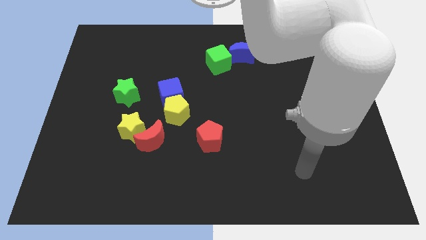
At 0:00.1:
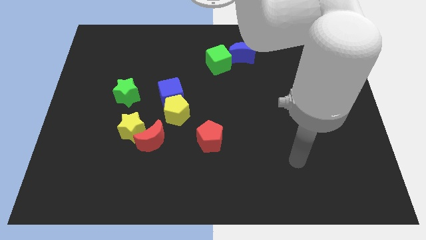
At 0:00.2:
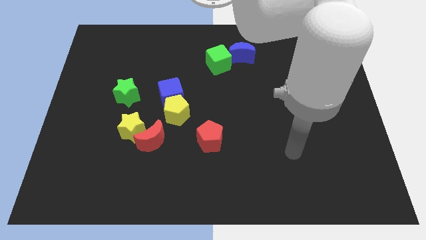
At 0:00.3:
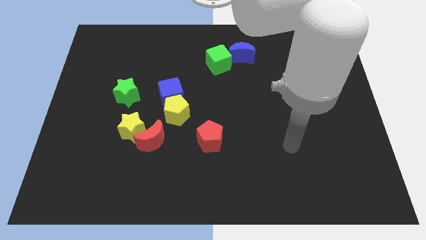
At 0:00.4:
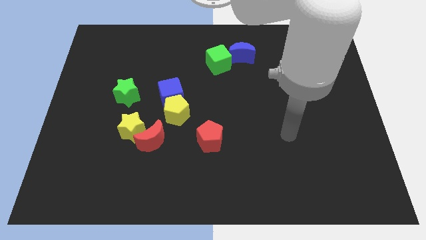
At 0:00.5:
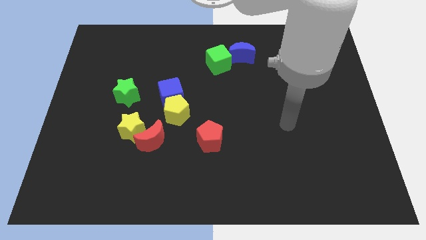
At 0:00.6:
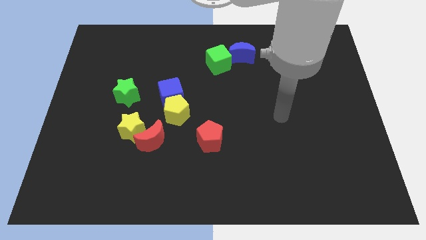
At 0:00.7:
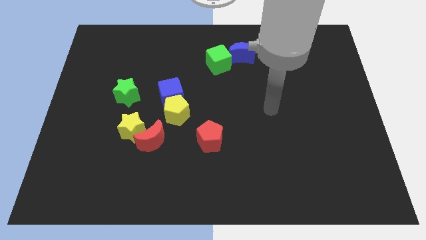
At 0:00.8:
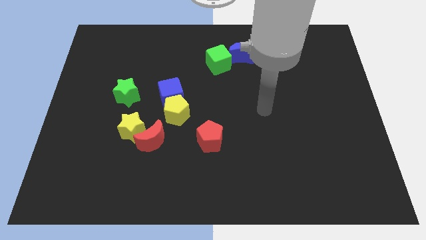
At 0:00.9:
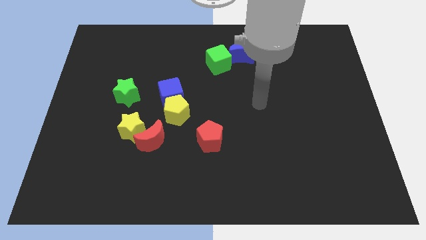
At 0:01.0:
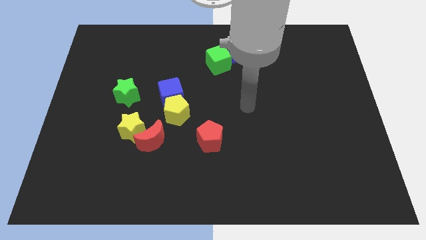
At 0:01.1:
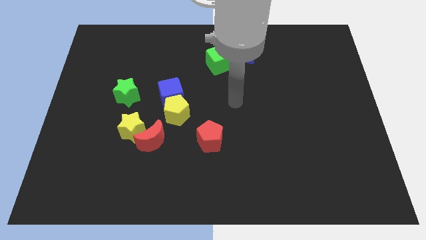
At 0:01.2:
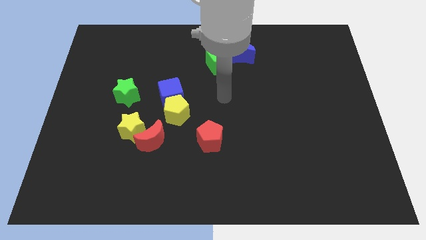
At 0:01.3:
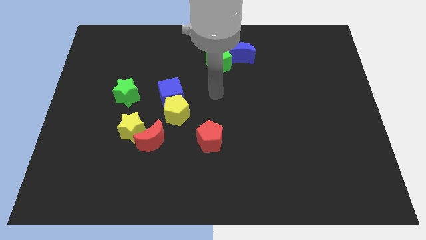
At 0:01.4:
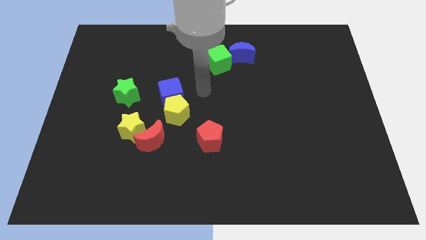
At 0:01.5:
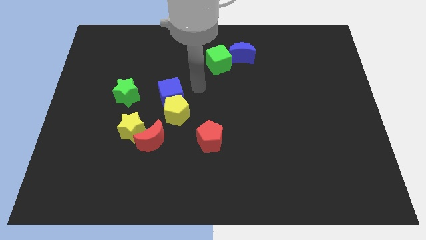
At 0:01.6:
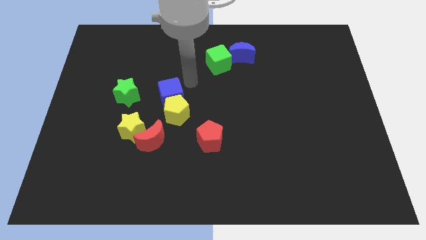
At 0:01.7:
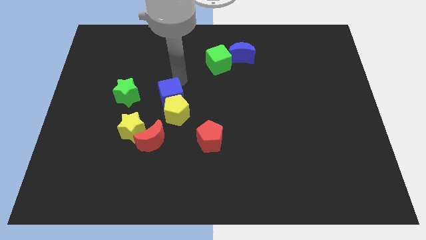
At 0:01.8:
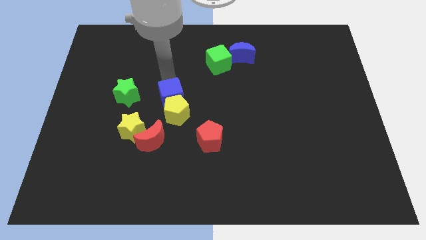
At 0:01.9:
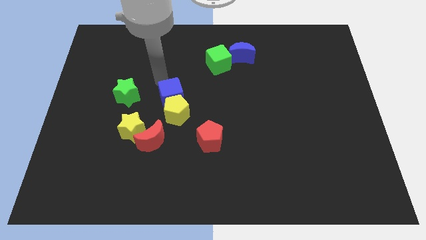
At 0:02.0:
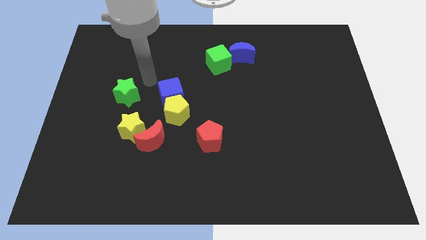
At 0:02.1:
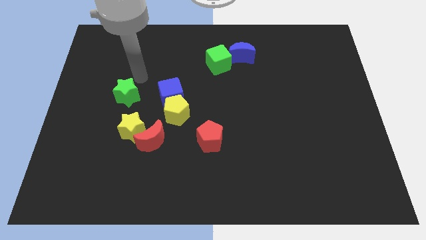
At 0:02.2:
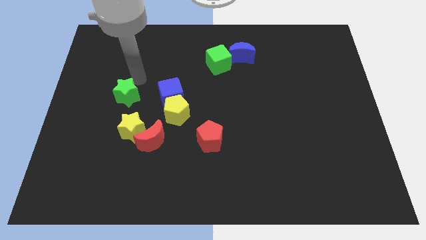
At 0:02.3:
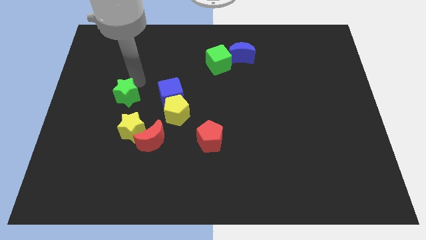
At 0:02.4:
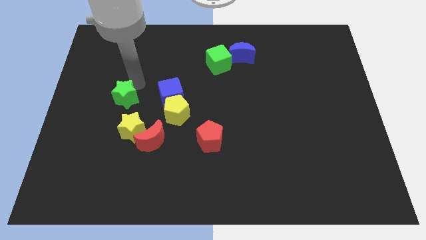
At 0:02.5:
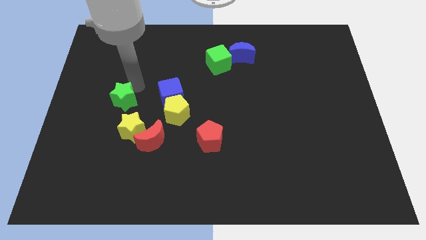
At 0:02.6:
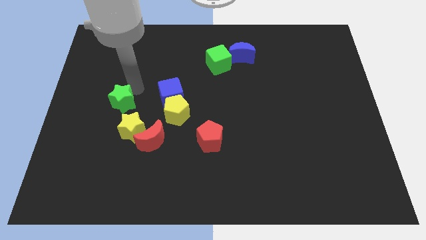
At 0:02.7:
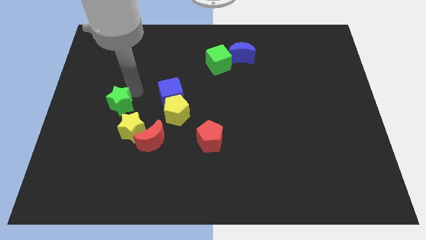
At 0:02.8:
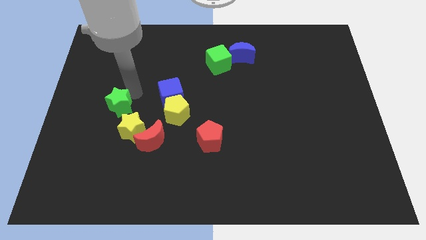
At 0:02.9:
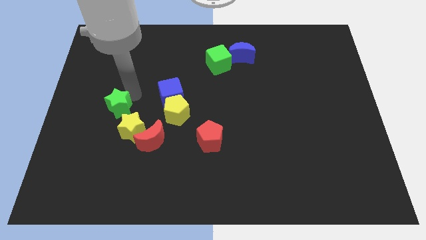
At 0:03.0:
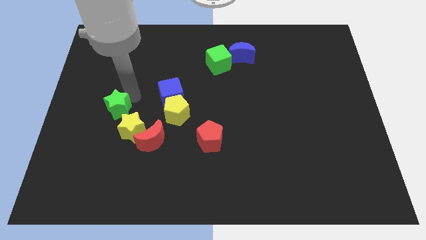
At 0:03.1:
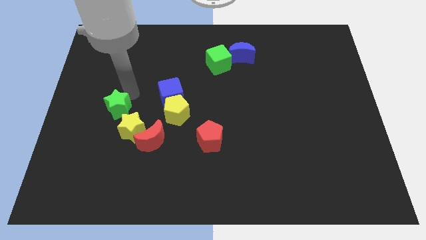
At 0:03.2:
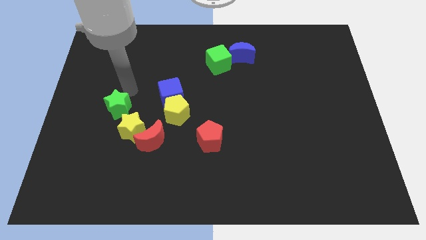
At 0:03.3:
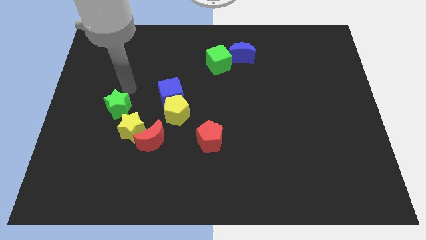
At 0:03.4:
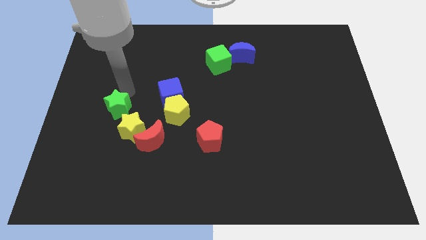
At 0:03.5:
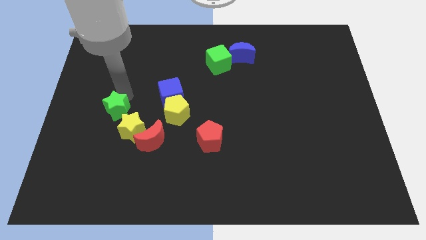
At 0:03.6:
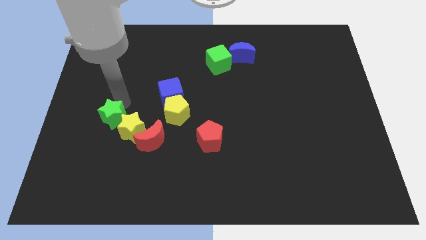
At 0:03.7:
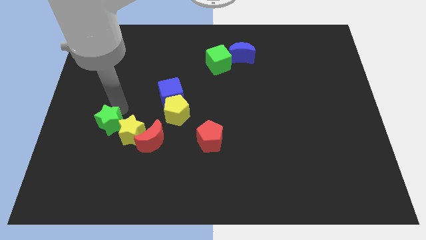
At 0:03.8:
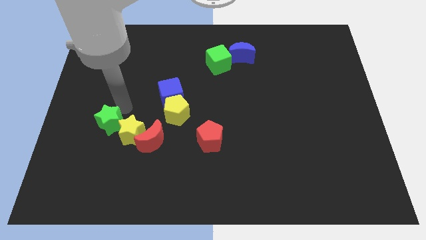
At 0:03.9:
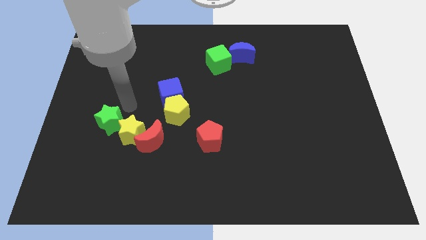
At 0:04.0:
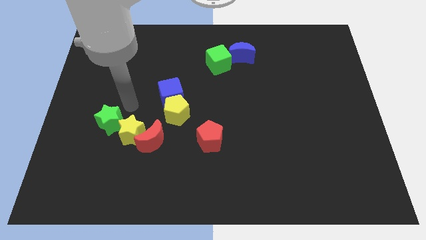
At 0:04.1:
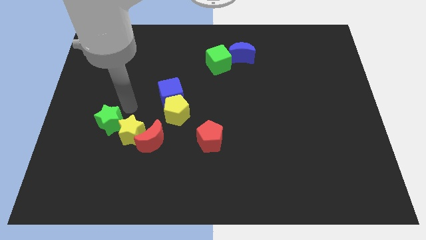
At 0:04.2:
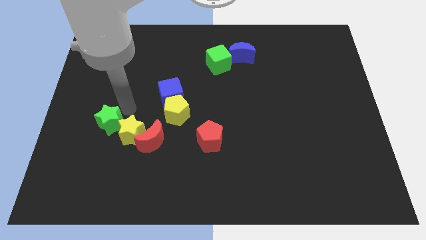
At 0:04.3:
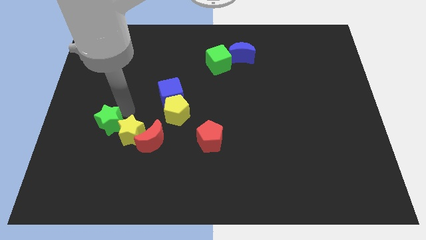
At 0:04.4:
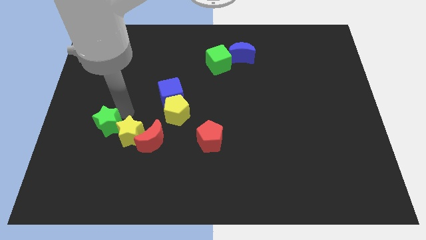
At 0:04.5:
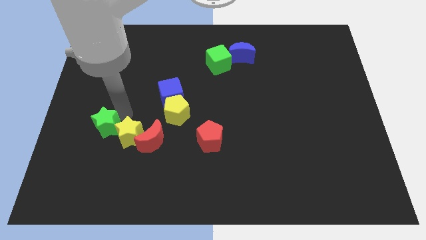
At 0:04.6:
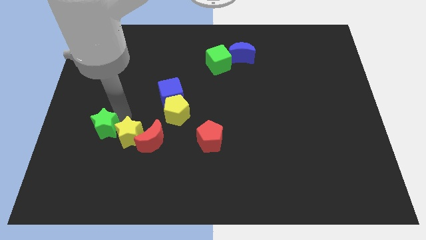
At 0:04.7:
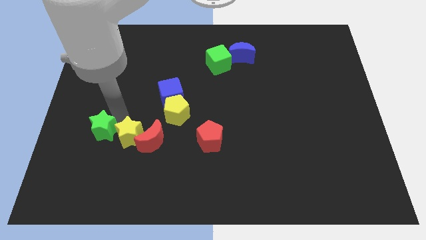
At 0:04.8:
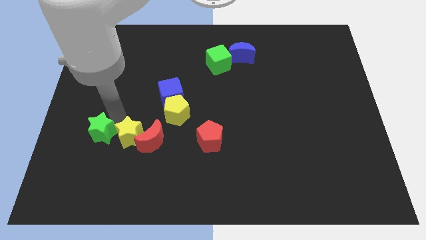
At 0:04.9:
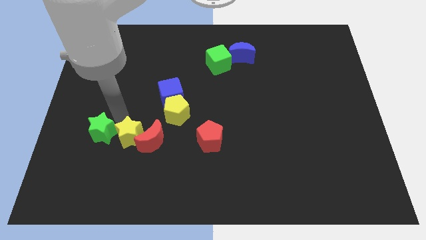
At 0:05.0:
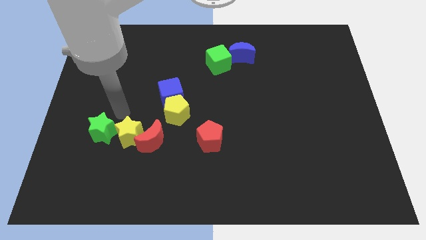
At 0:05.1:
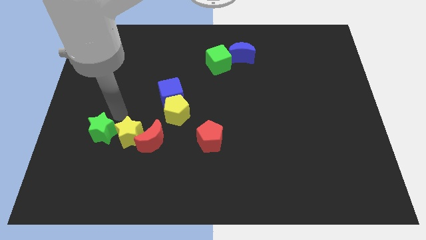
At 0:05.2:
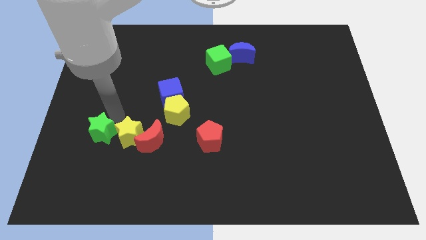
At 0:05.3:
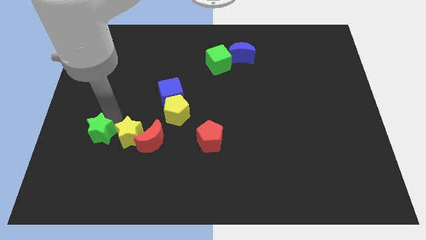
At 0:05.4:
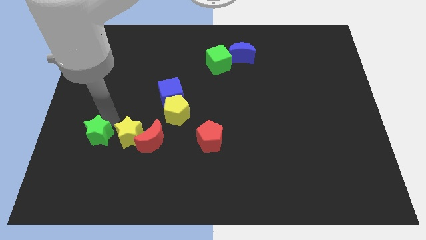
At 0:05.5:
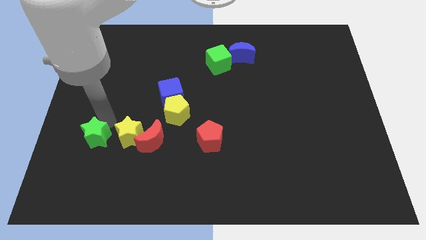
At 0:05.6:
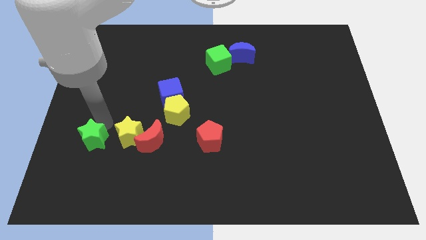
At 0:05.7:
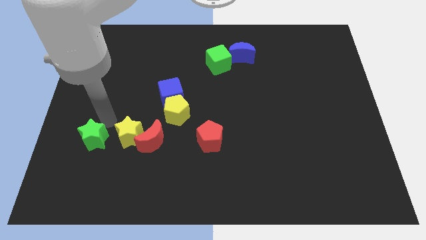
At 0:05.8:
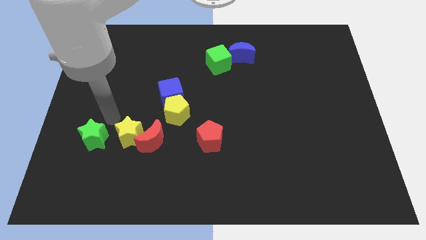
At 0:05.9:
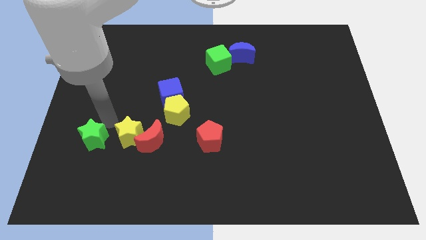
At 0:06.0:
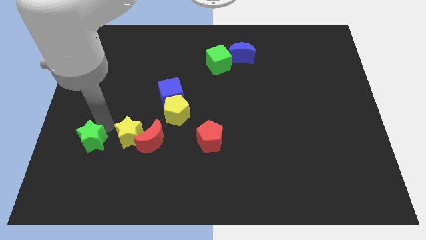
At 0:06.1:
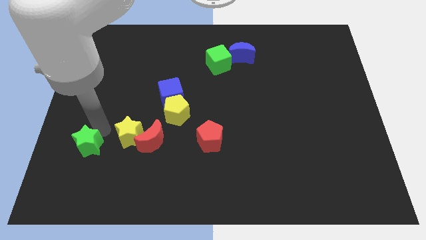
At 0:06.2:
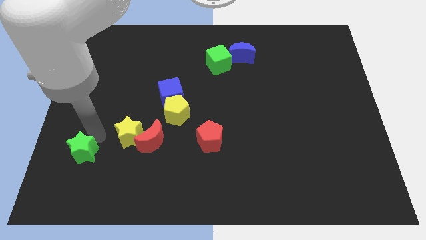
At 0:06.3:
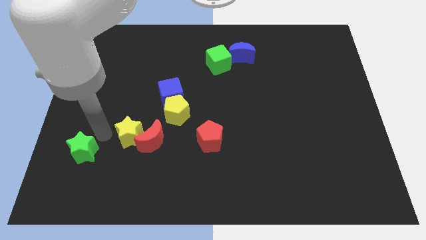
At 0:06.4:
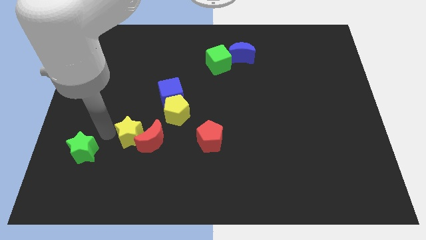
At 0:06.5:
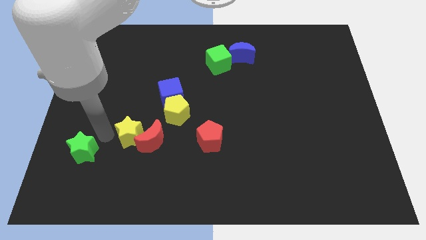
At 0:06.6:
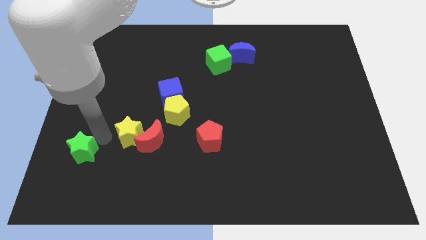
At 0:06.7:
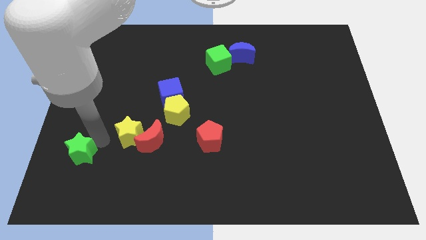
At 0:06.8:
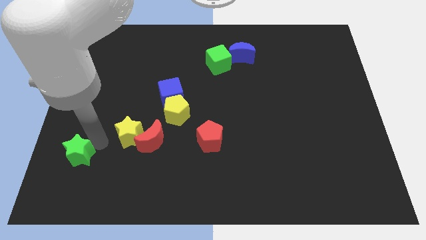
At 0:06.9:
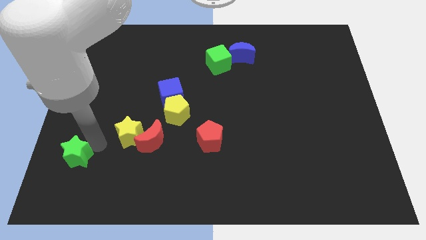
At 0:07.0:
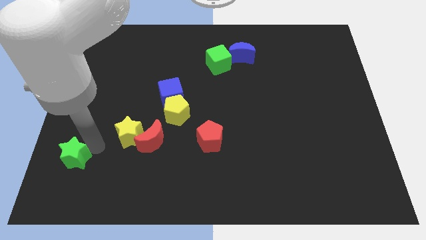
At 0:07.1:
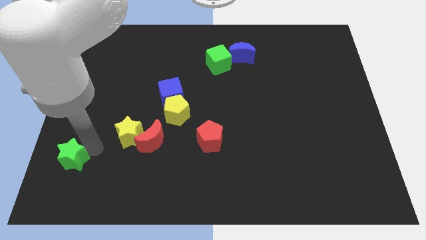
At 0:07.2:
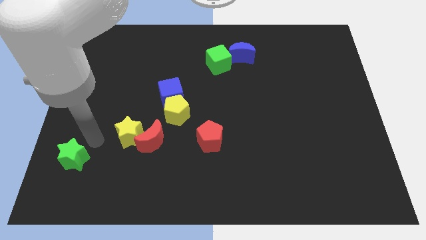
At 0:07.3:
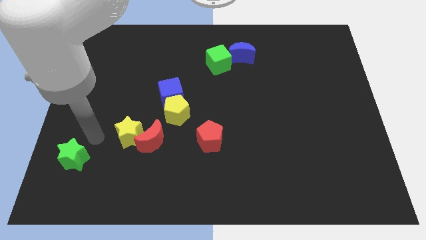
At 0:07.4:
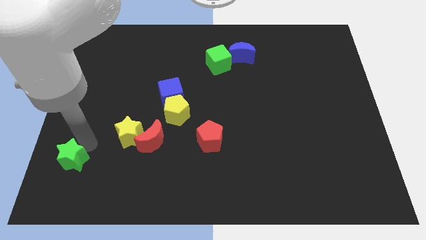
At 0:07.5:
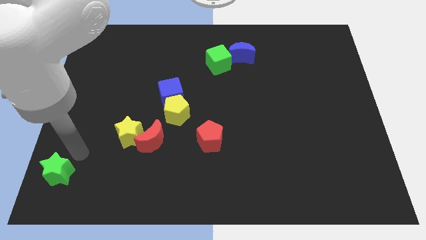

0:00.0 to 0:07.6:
move the green star to the bottom left of the board
